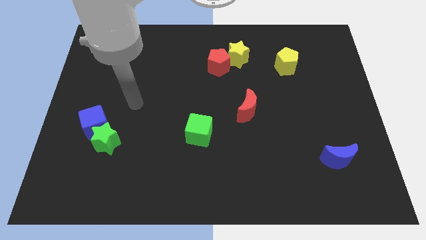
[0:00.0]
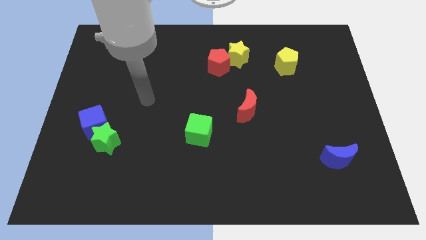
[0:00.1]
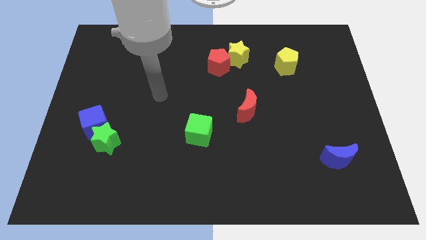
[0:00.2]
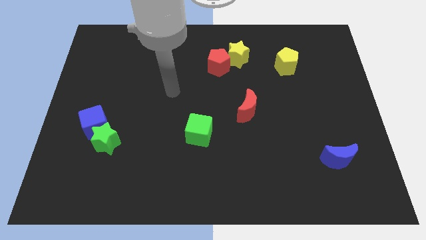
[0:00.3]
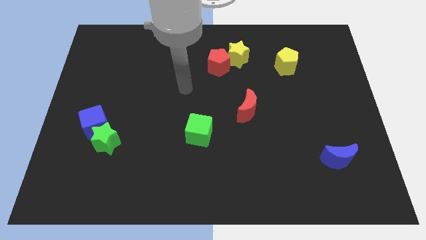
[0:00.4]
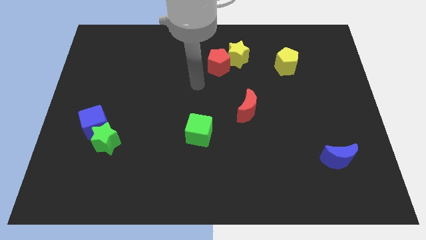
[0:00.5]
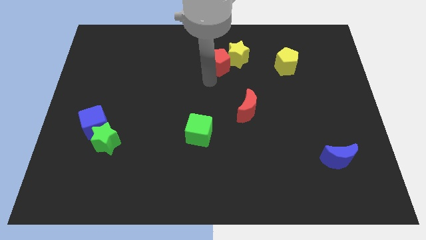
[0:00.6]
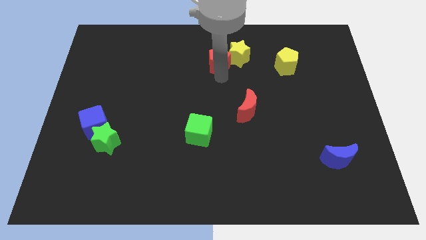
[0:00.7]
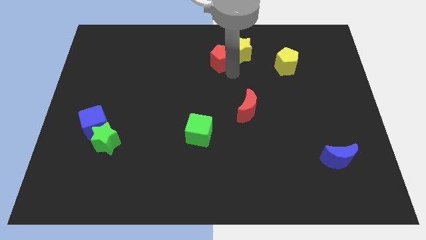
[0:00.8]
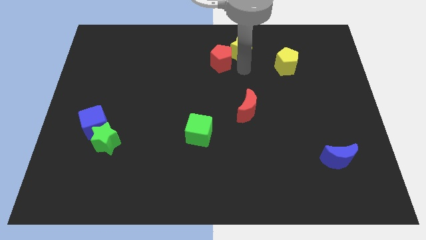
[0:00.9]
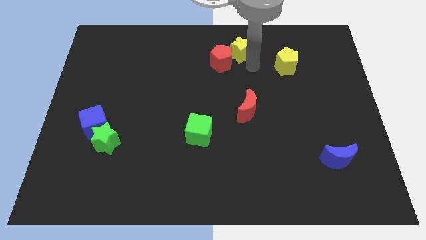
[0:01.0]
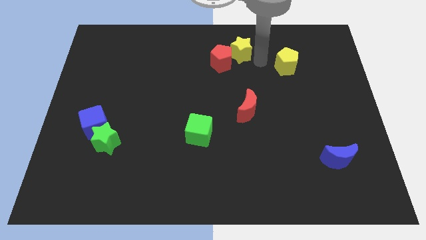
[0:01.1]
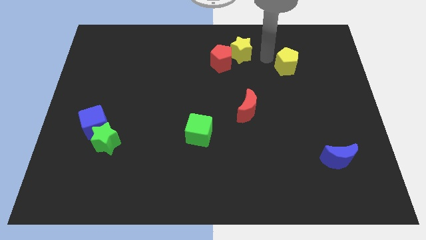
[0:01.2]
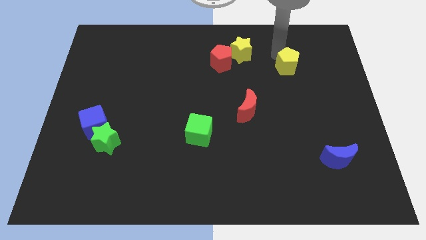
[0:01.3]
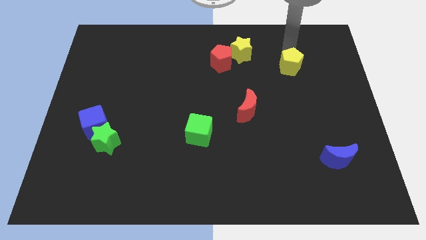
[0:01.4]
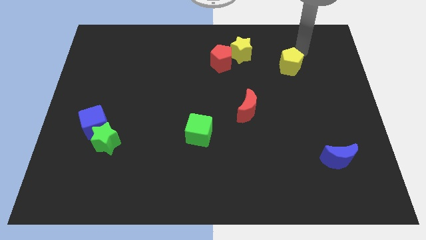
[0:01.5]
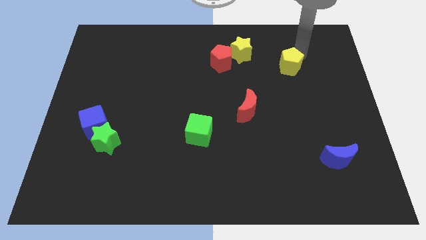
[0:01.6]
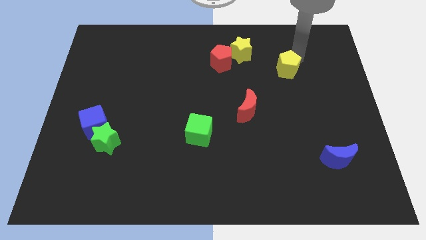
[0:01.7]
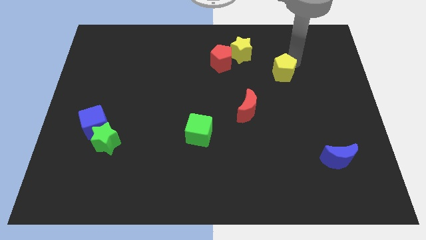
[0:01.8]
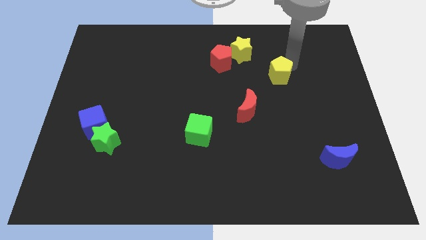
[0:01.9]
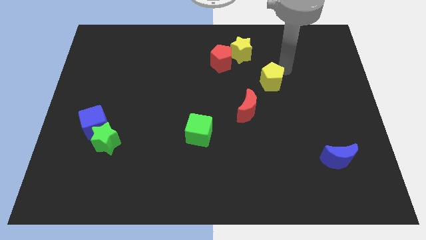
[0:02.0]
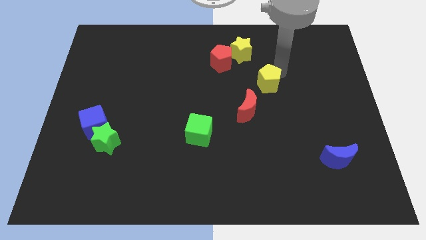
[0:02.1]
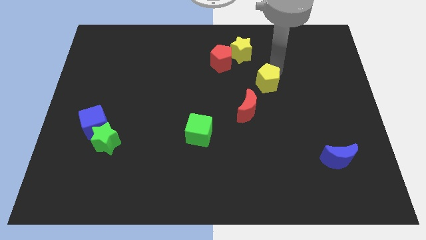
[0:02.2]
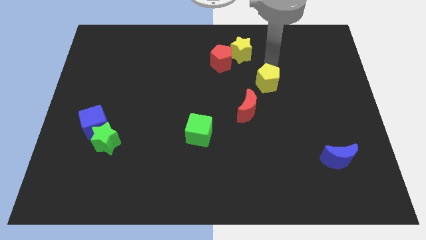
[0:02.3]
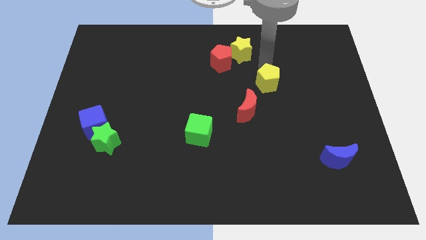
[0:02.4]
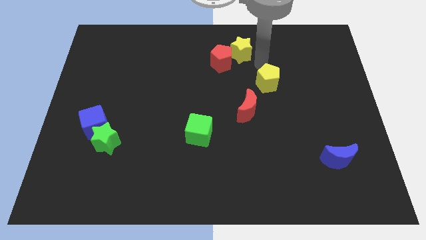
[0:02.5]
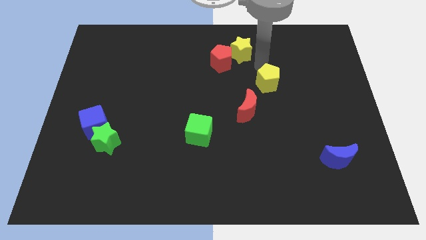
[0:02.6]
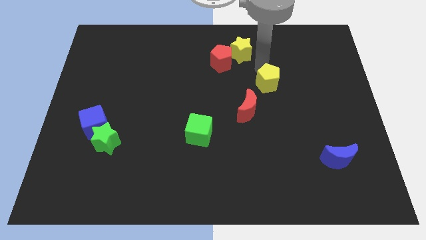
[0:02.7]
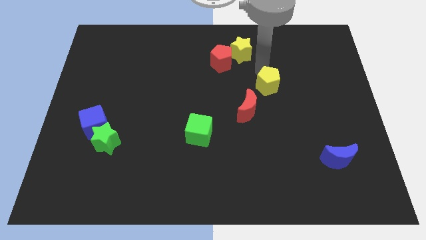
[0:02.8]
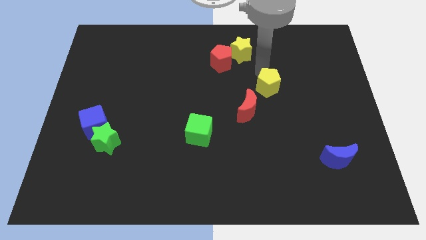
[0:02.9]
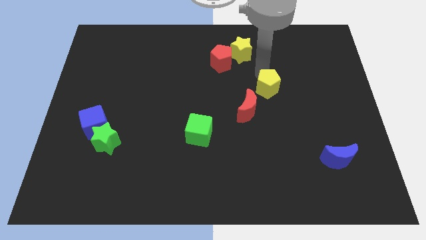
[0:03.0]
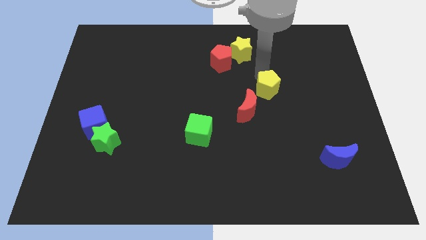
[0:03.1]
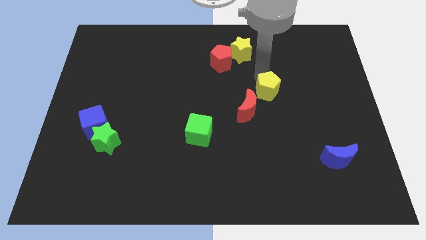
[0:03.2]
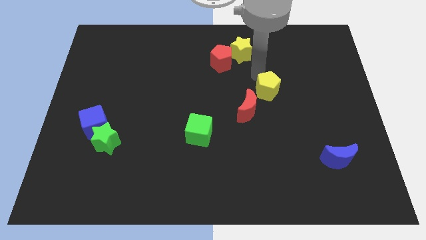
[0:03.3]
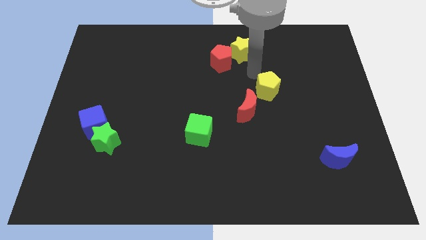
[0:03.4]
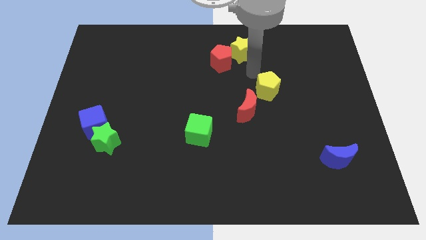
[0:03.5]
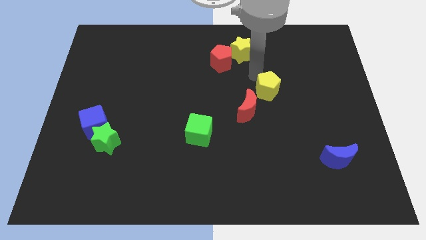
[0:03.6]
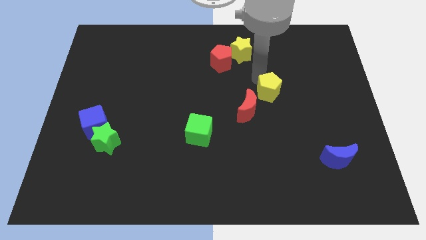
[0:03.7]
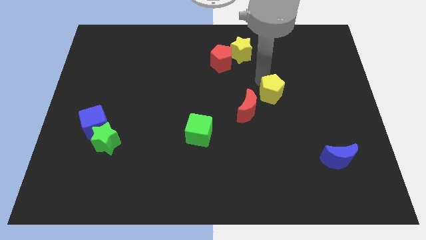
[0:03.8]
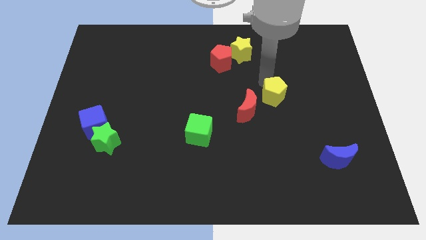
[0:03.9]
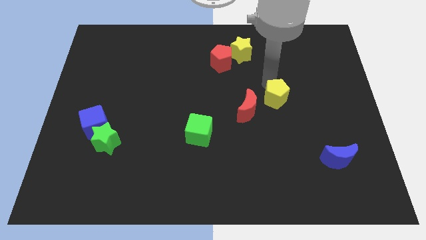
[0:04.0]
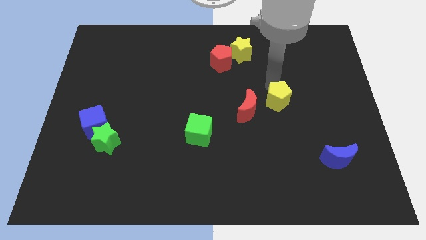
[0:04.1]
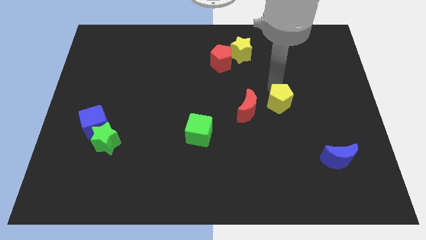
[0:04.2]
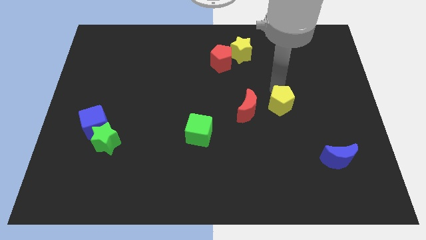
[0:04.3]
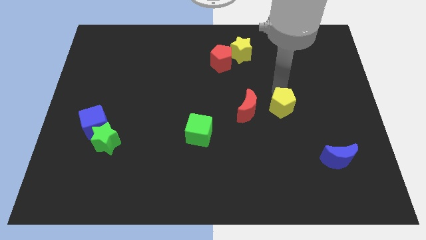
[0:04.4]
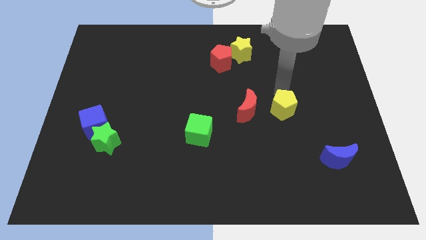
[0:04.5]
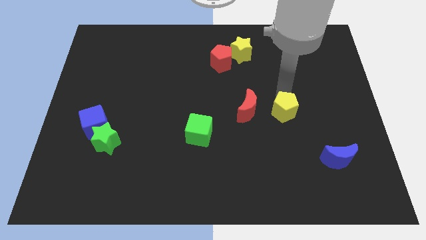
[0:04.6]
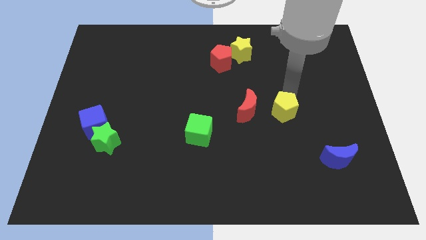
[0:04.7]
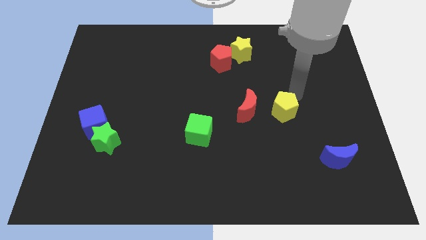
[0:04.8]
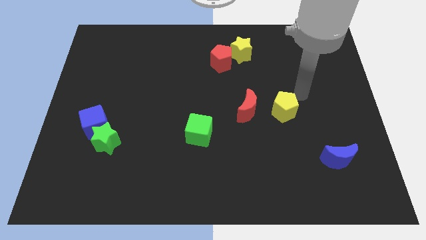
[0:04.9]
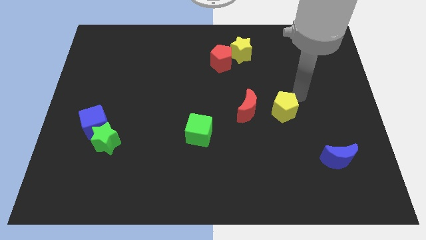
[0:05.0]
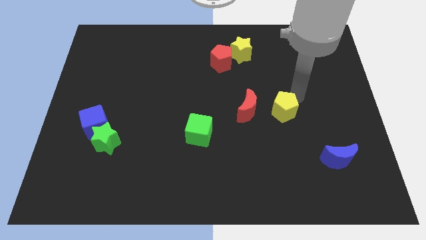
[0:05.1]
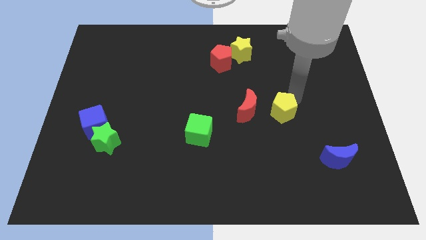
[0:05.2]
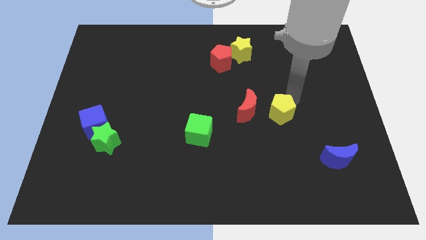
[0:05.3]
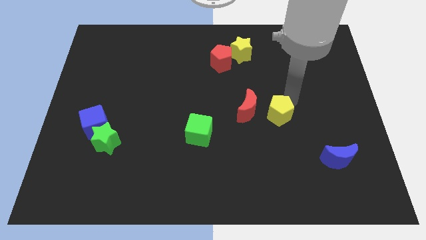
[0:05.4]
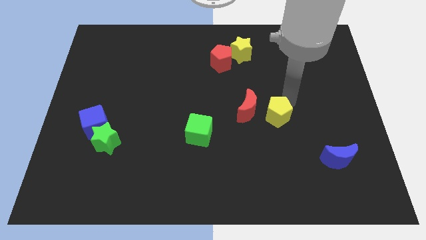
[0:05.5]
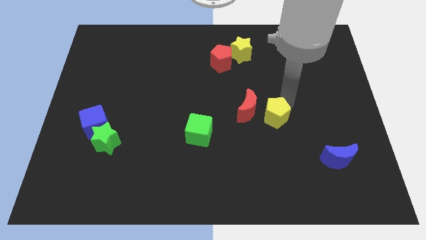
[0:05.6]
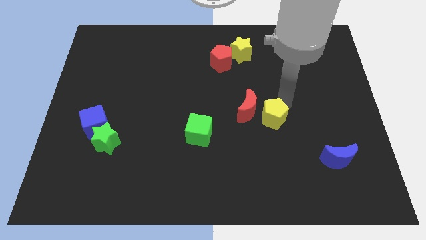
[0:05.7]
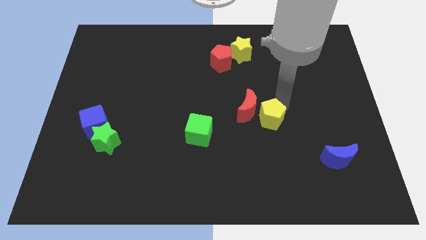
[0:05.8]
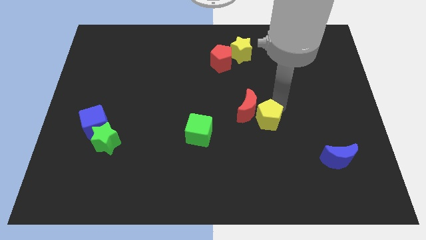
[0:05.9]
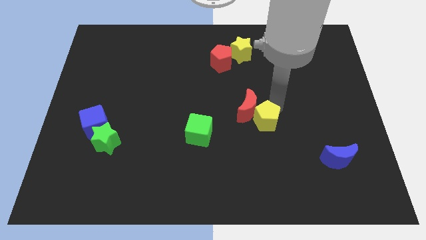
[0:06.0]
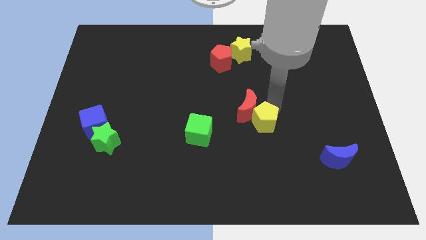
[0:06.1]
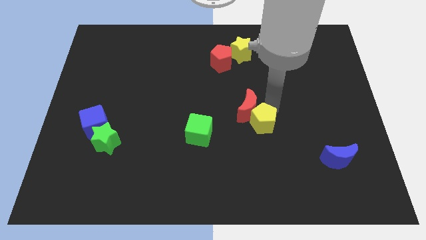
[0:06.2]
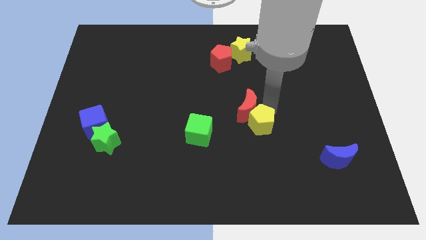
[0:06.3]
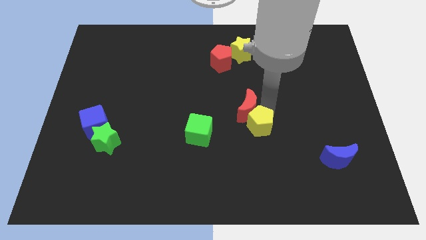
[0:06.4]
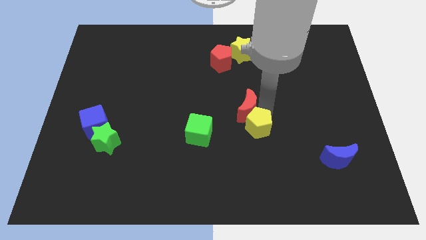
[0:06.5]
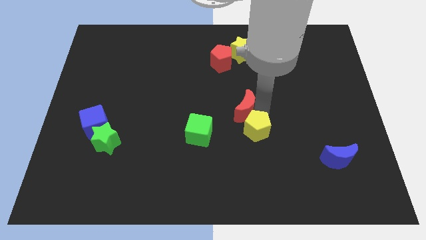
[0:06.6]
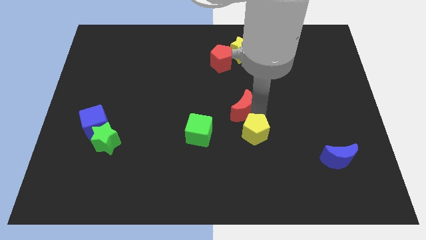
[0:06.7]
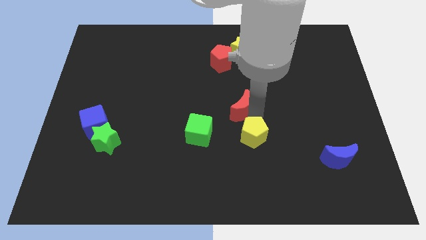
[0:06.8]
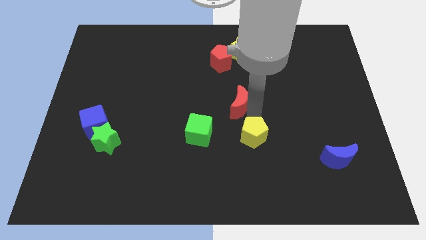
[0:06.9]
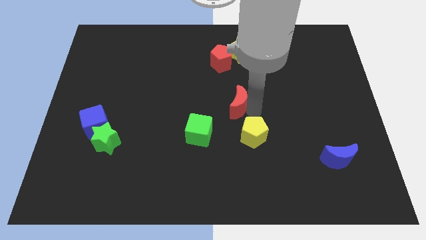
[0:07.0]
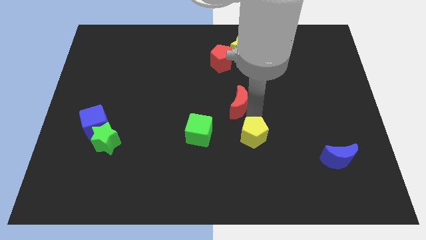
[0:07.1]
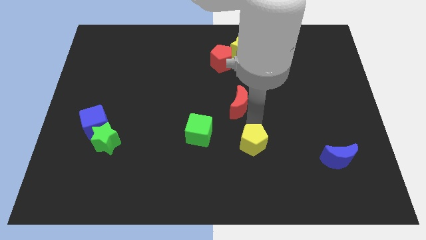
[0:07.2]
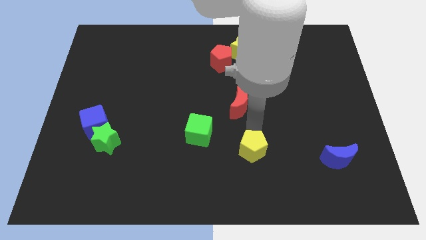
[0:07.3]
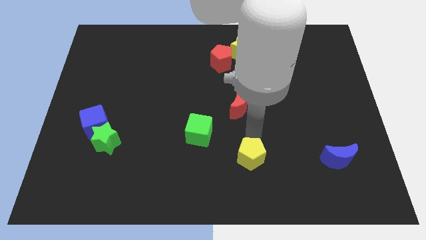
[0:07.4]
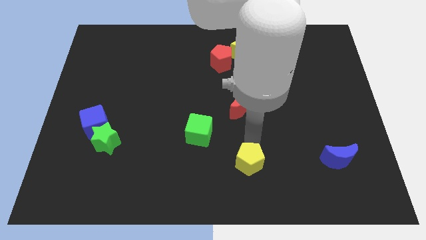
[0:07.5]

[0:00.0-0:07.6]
put the yellow pentagon to the bottom
